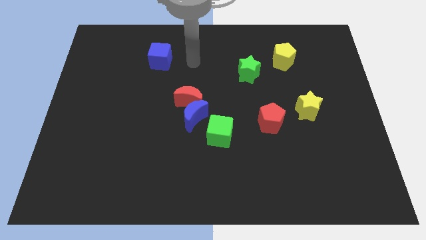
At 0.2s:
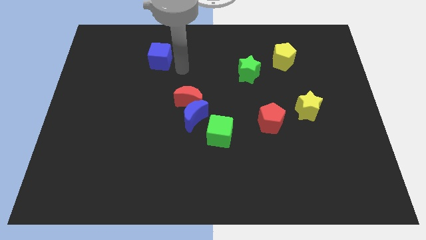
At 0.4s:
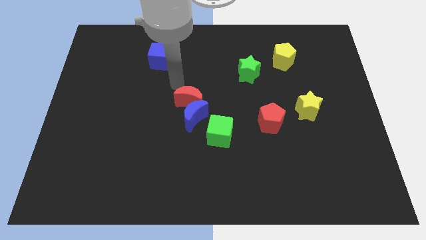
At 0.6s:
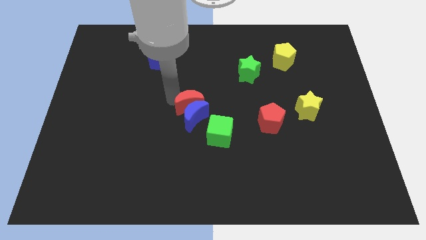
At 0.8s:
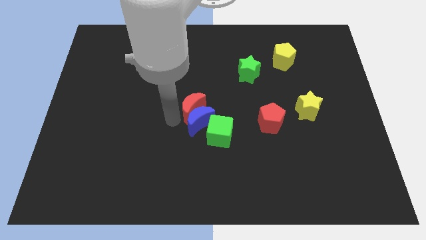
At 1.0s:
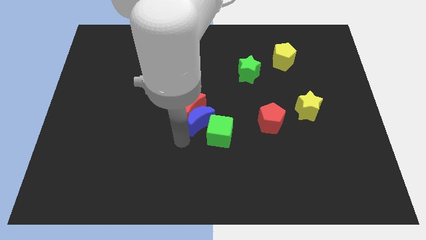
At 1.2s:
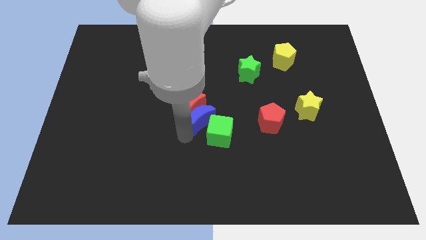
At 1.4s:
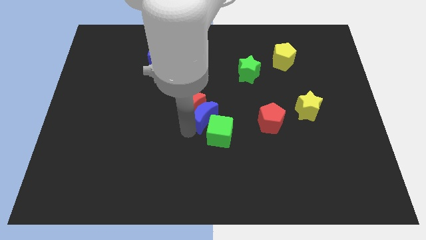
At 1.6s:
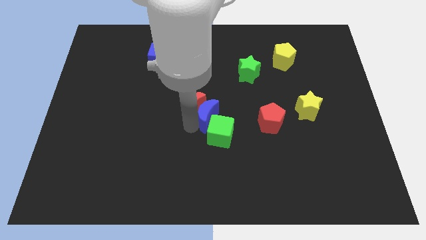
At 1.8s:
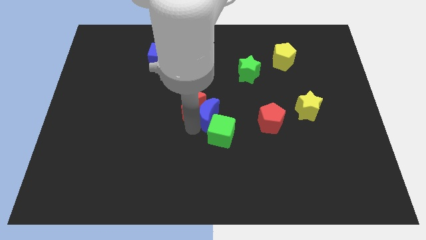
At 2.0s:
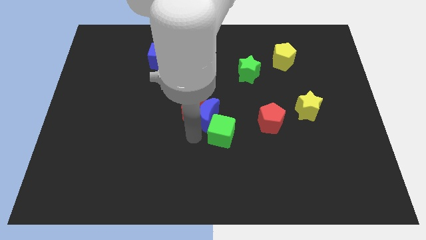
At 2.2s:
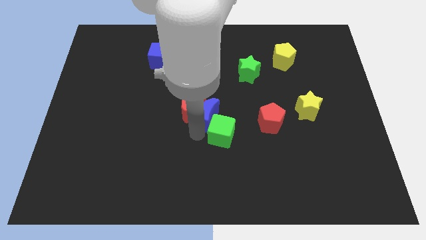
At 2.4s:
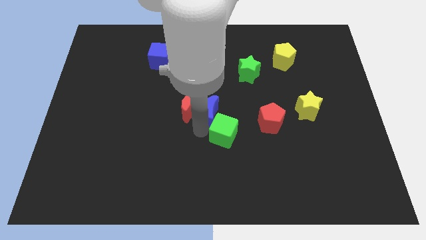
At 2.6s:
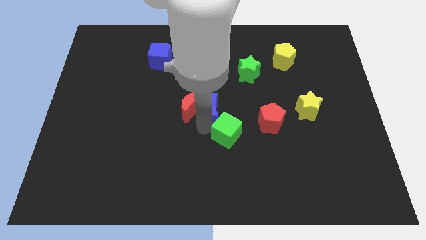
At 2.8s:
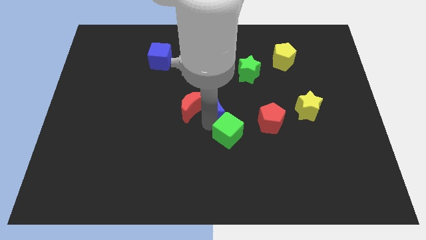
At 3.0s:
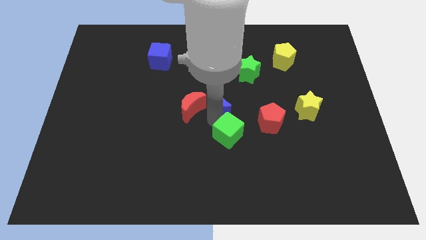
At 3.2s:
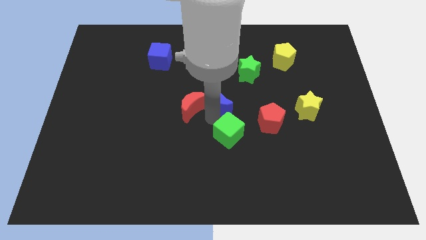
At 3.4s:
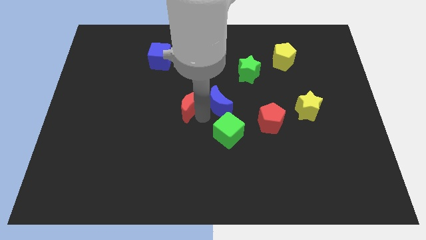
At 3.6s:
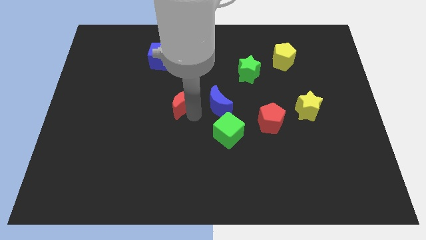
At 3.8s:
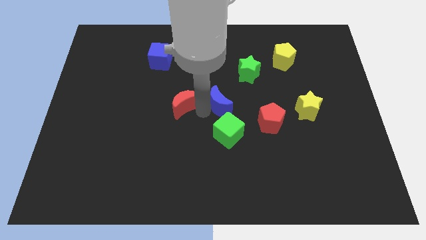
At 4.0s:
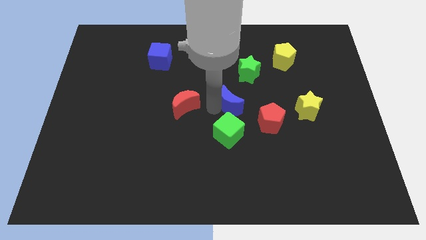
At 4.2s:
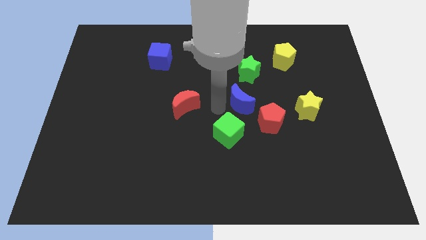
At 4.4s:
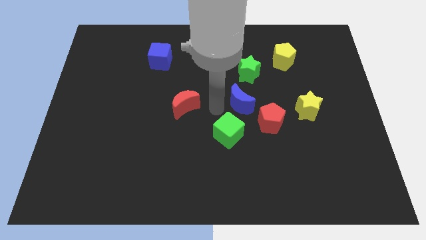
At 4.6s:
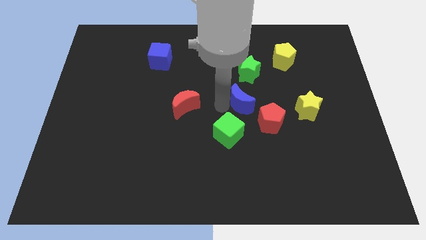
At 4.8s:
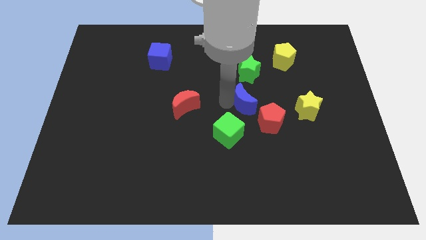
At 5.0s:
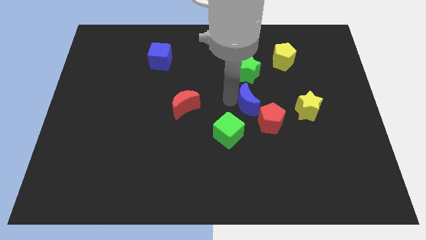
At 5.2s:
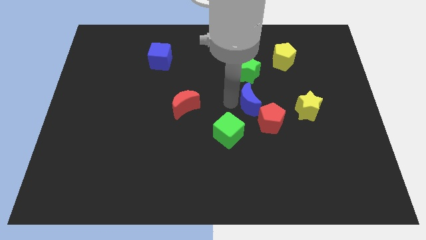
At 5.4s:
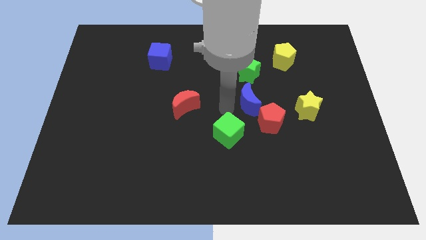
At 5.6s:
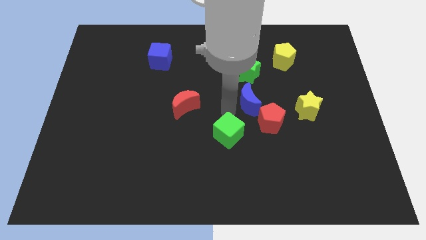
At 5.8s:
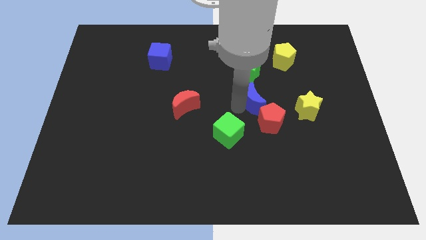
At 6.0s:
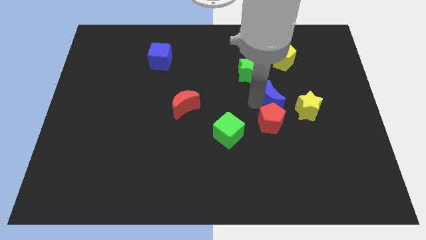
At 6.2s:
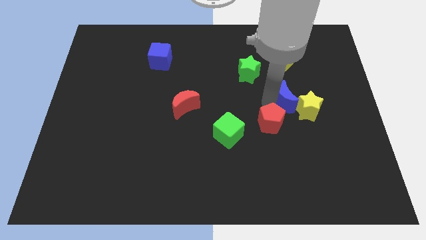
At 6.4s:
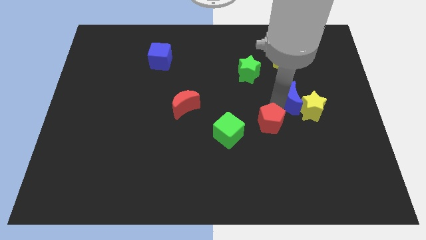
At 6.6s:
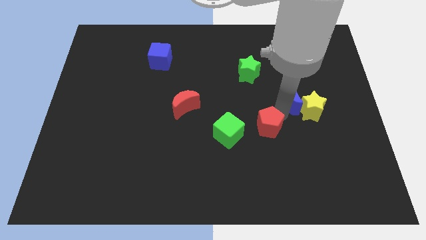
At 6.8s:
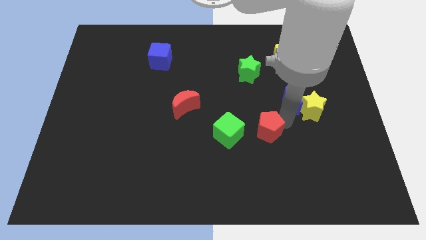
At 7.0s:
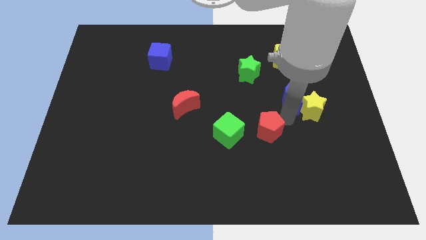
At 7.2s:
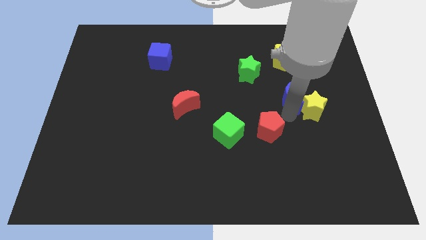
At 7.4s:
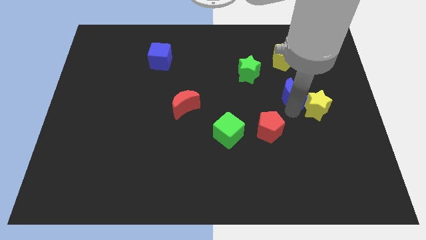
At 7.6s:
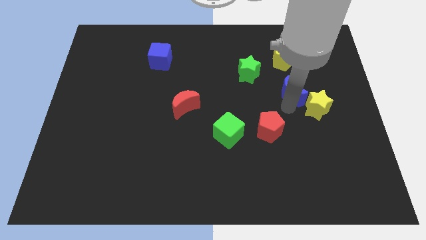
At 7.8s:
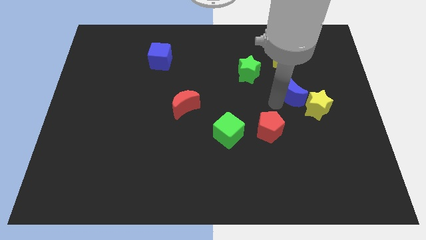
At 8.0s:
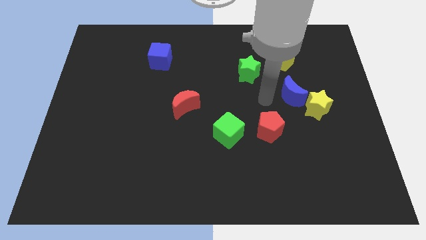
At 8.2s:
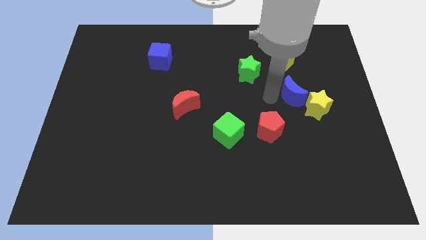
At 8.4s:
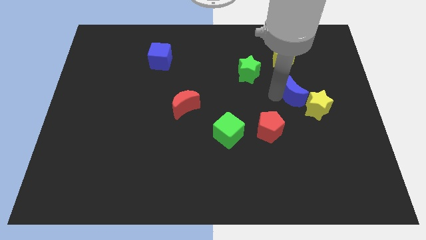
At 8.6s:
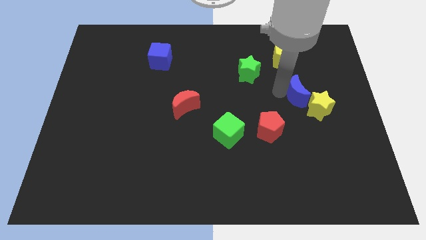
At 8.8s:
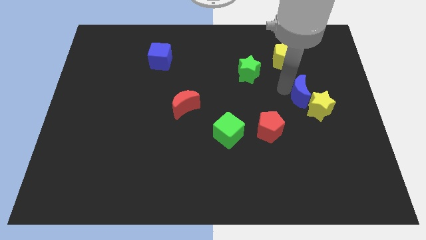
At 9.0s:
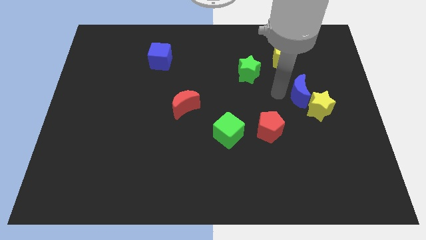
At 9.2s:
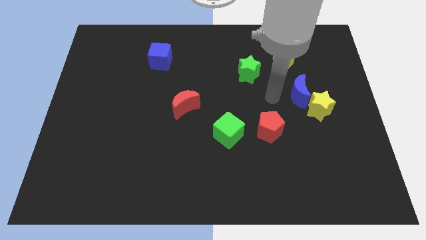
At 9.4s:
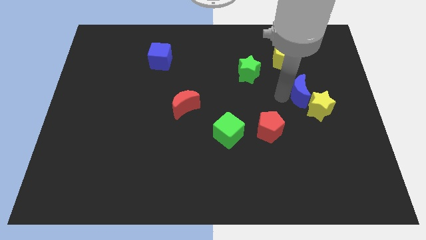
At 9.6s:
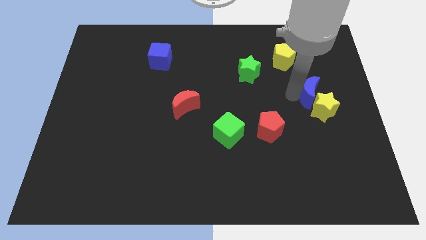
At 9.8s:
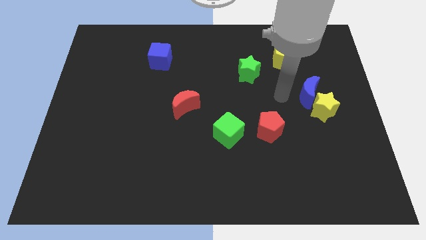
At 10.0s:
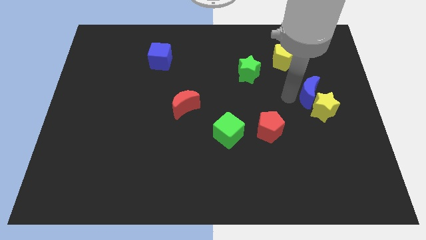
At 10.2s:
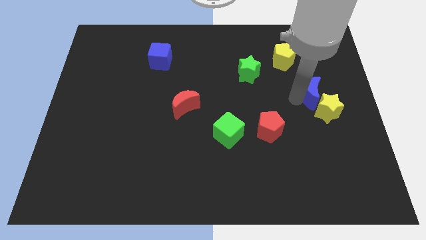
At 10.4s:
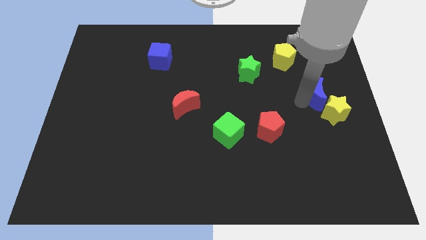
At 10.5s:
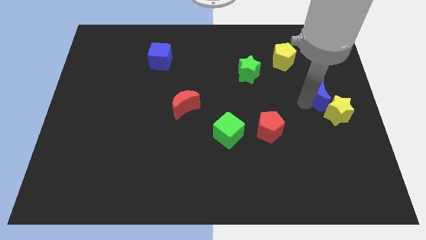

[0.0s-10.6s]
slide the blue moon to the right side of the board

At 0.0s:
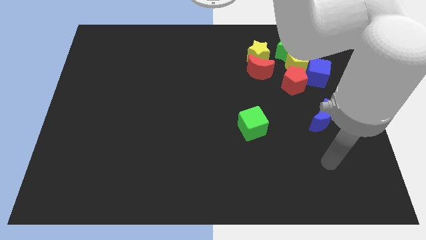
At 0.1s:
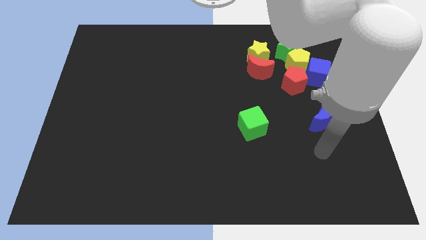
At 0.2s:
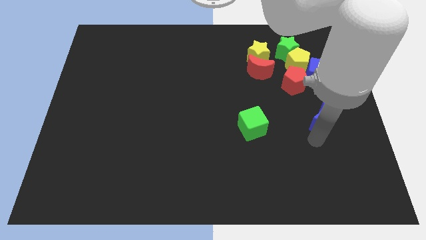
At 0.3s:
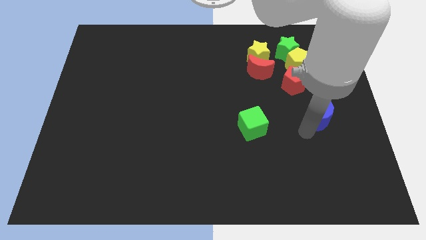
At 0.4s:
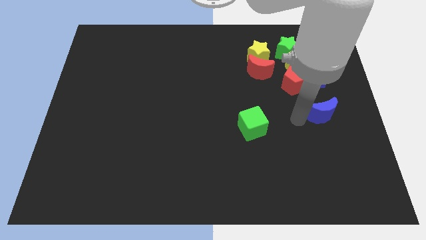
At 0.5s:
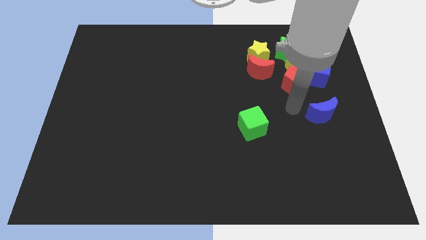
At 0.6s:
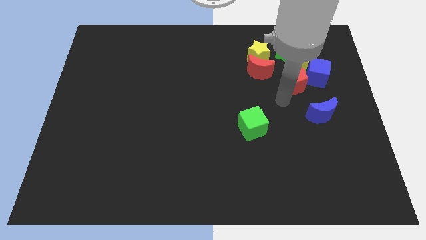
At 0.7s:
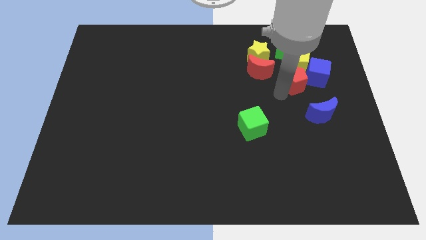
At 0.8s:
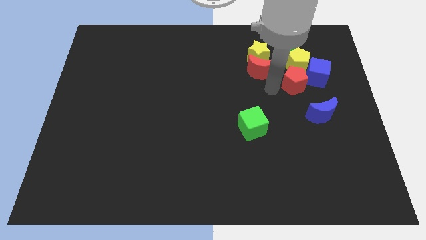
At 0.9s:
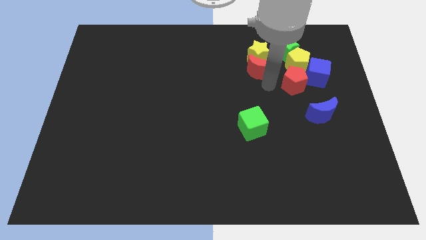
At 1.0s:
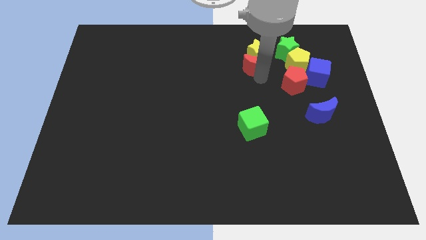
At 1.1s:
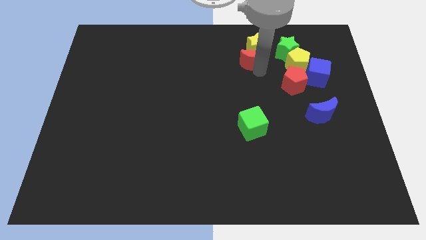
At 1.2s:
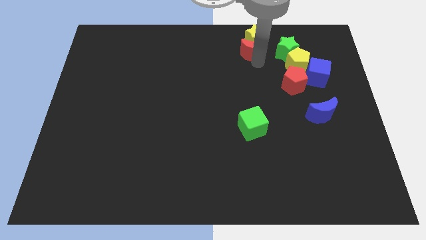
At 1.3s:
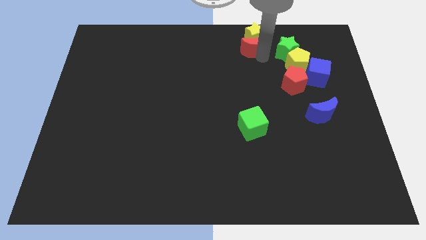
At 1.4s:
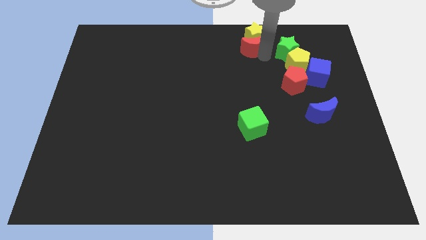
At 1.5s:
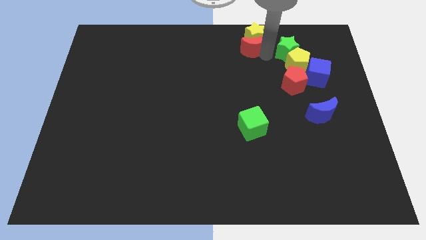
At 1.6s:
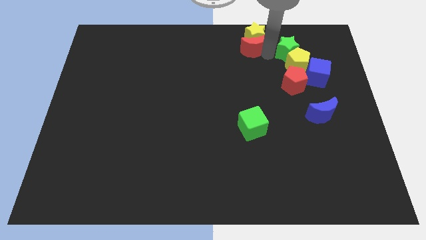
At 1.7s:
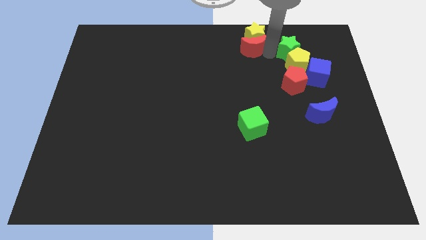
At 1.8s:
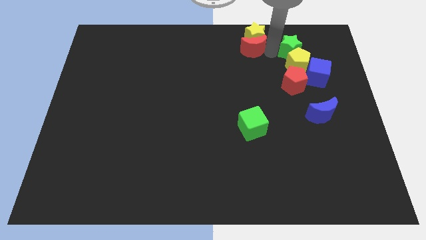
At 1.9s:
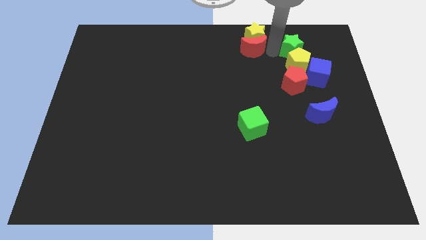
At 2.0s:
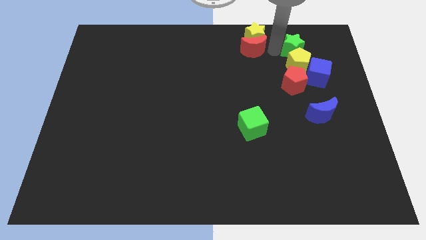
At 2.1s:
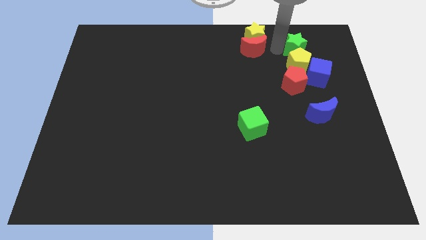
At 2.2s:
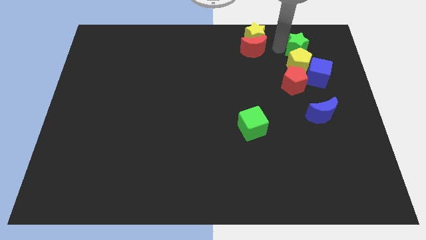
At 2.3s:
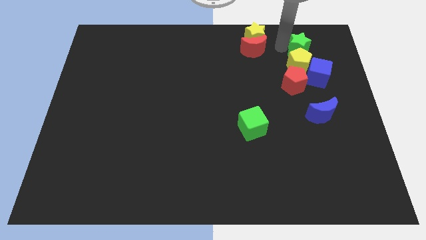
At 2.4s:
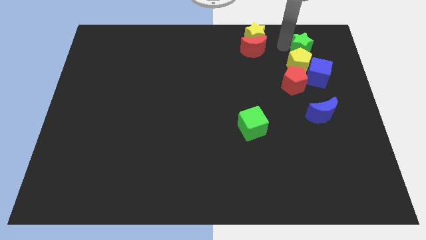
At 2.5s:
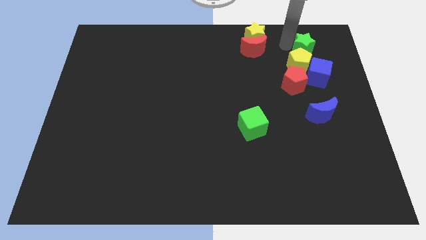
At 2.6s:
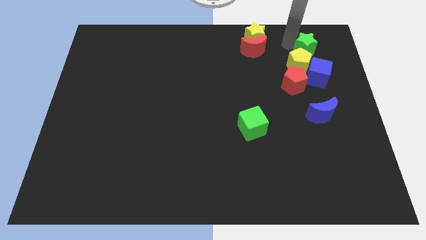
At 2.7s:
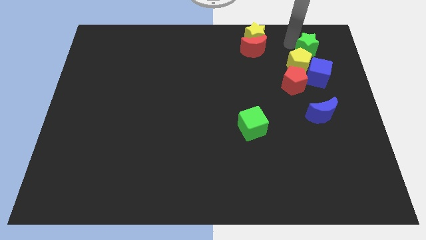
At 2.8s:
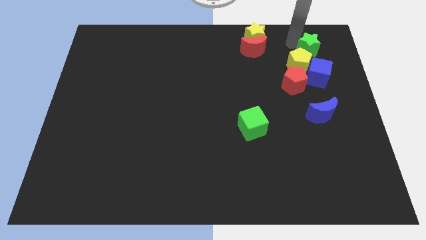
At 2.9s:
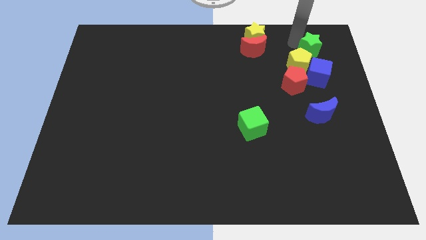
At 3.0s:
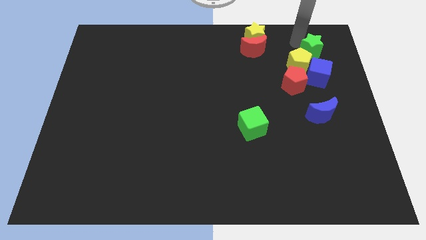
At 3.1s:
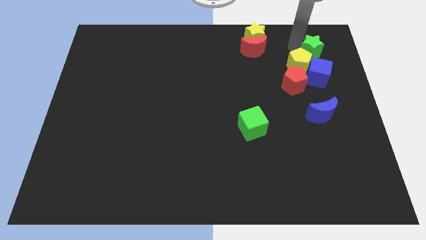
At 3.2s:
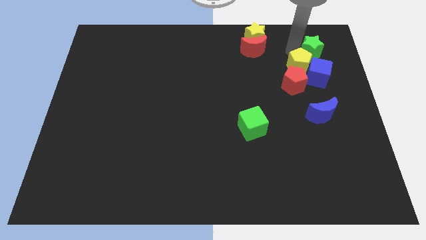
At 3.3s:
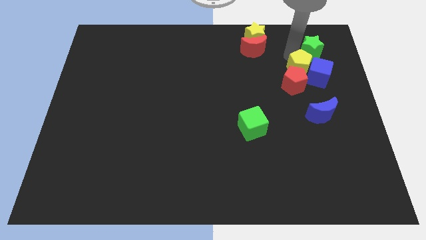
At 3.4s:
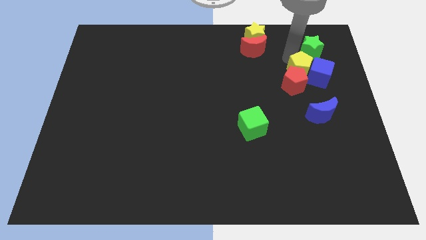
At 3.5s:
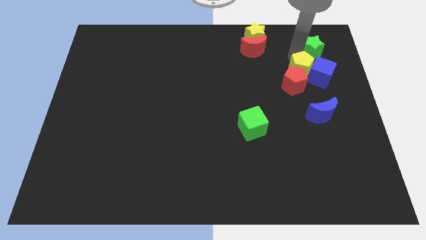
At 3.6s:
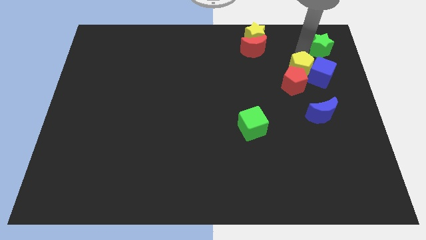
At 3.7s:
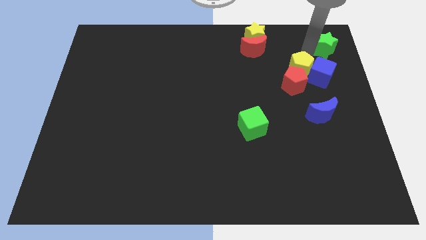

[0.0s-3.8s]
slide the green star to the top right corner
